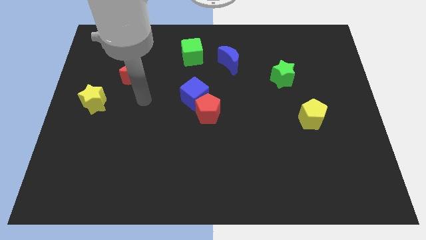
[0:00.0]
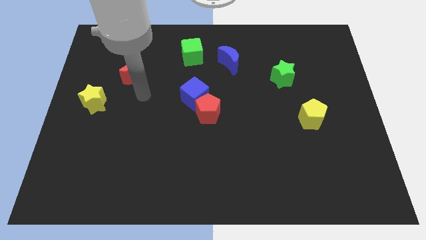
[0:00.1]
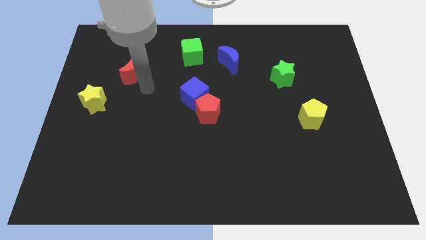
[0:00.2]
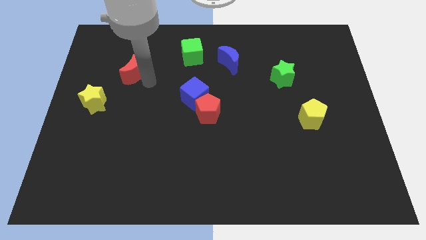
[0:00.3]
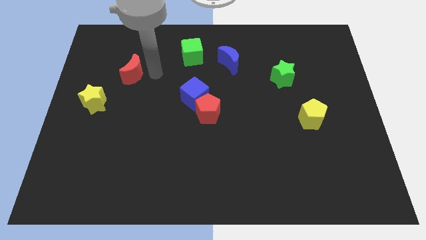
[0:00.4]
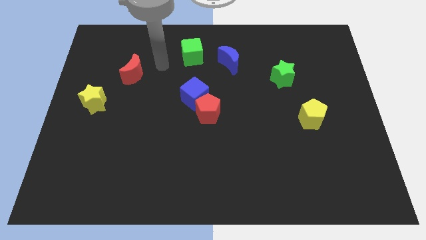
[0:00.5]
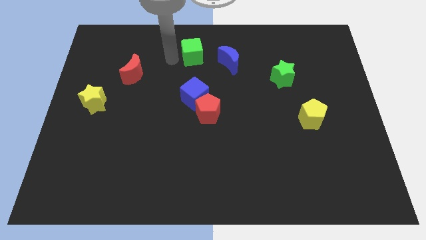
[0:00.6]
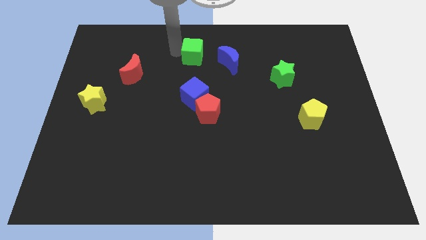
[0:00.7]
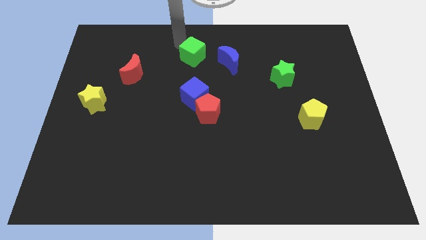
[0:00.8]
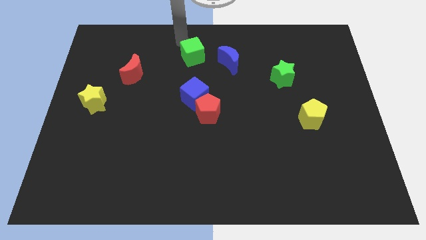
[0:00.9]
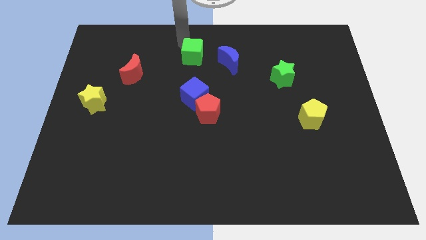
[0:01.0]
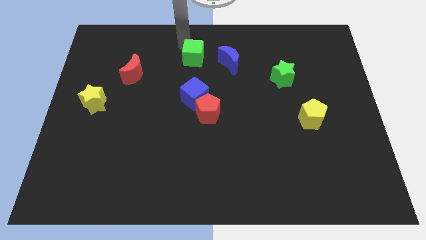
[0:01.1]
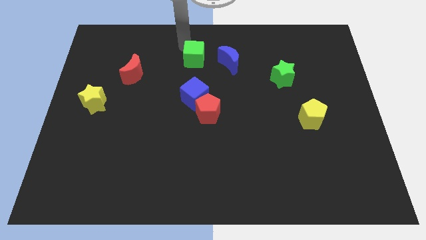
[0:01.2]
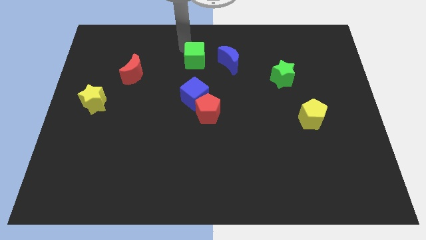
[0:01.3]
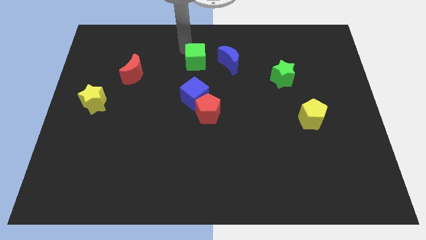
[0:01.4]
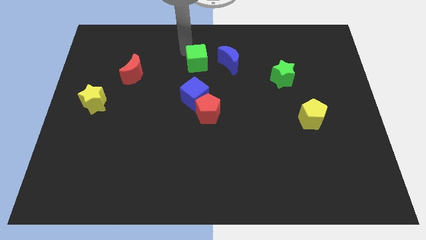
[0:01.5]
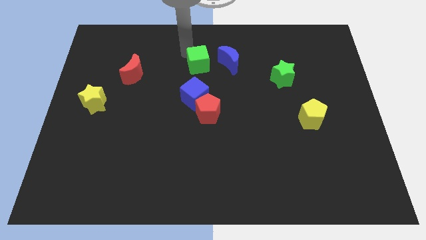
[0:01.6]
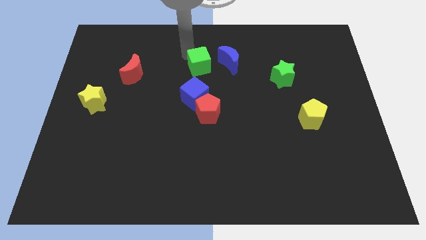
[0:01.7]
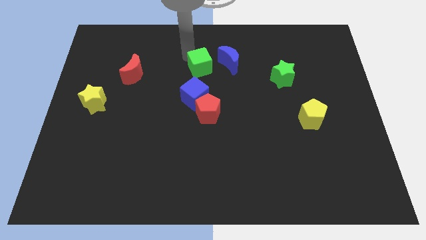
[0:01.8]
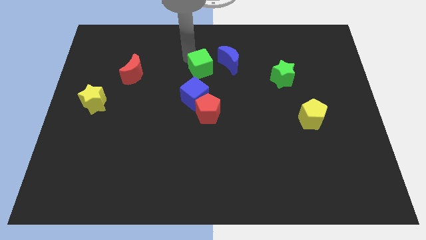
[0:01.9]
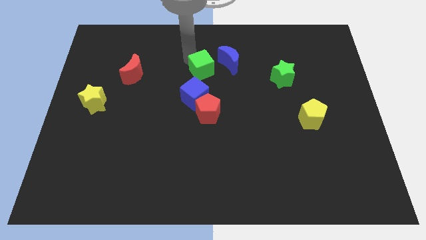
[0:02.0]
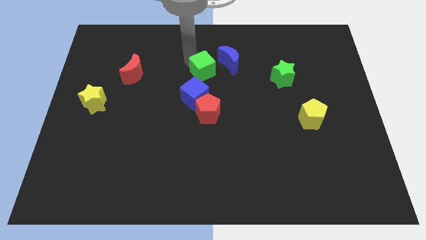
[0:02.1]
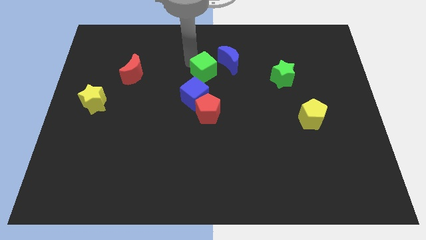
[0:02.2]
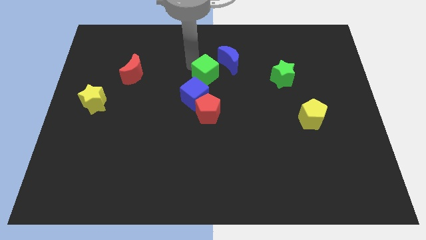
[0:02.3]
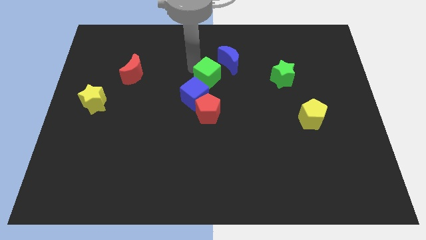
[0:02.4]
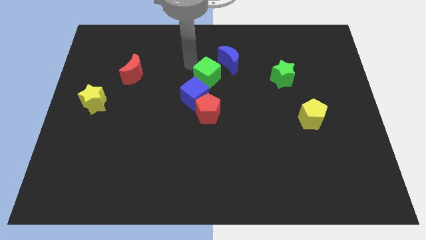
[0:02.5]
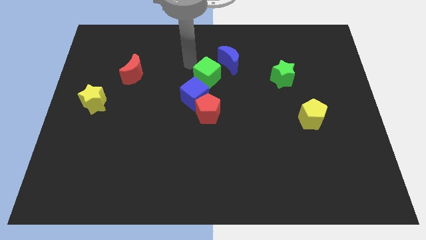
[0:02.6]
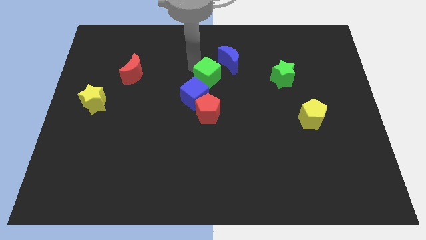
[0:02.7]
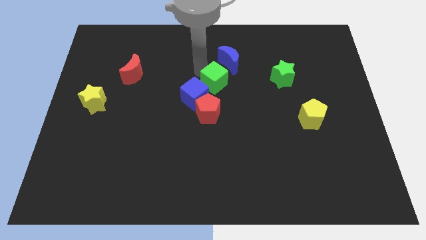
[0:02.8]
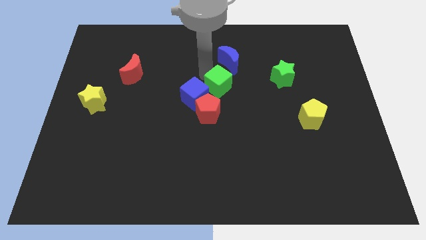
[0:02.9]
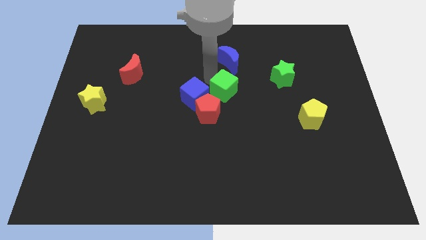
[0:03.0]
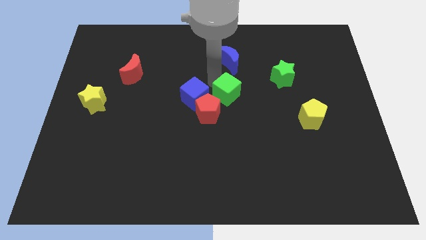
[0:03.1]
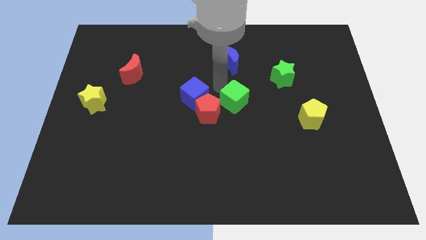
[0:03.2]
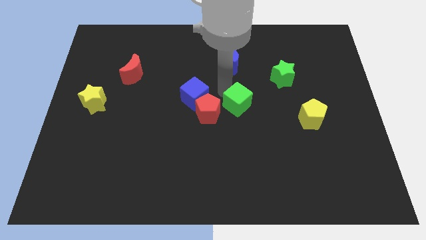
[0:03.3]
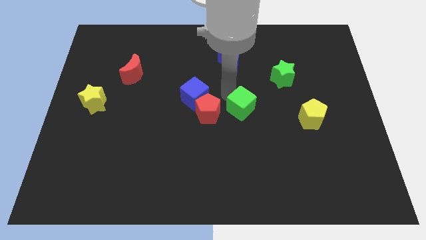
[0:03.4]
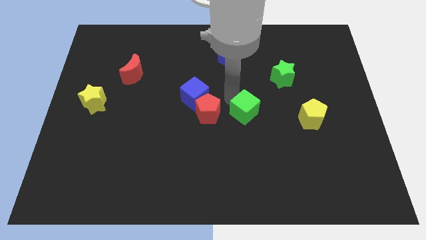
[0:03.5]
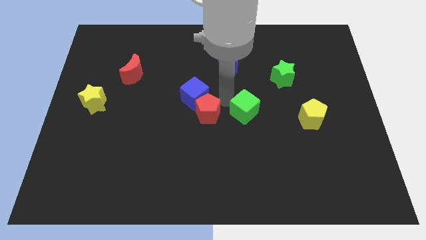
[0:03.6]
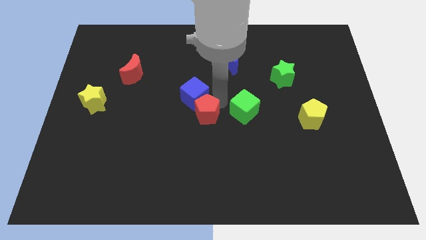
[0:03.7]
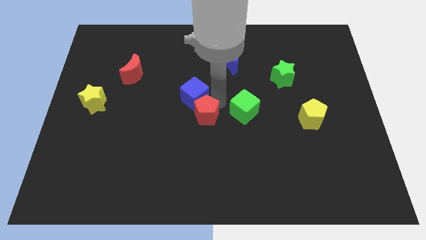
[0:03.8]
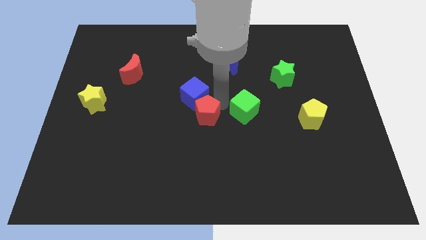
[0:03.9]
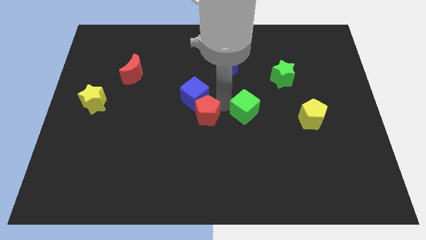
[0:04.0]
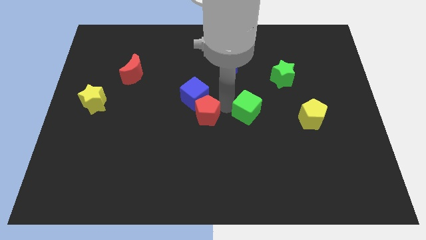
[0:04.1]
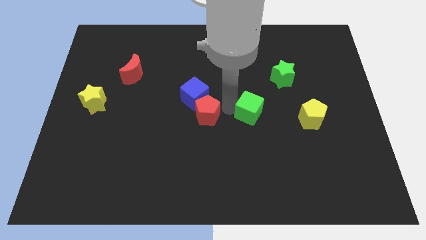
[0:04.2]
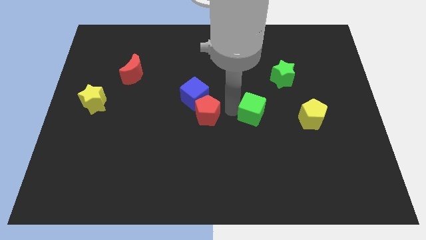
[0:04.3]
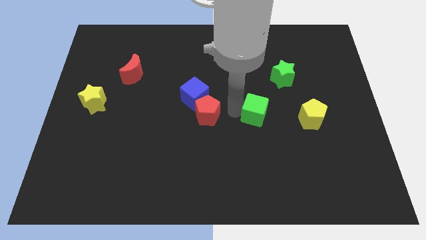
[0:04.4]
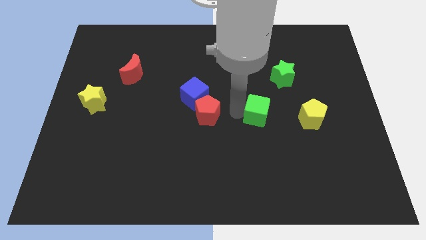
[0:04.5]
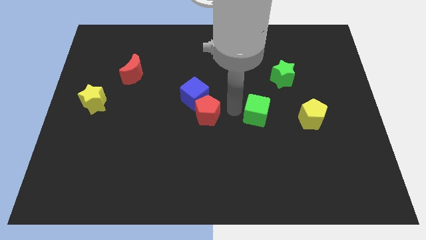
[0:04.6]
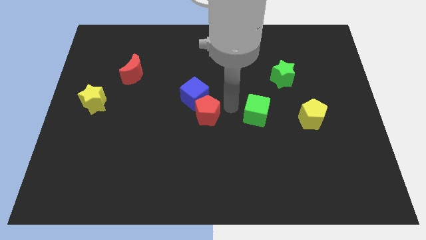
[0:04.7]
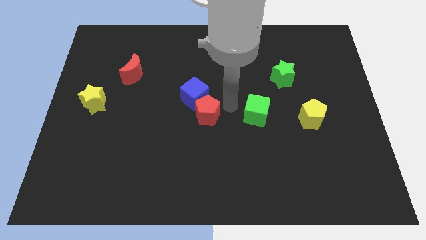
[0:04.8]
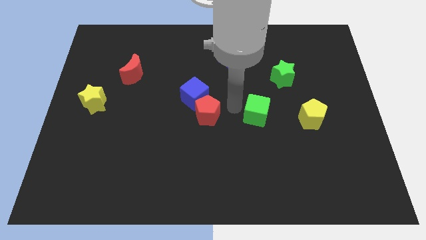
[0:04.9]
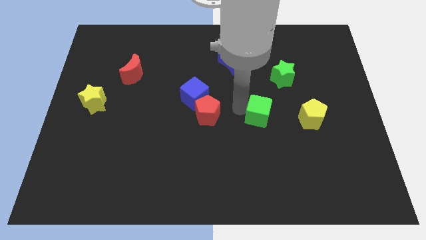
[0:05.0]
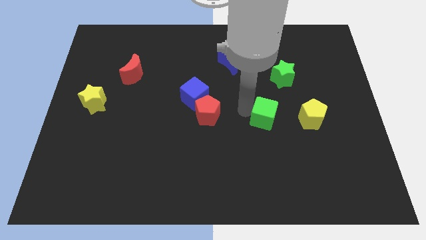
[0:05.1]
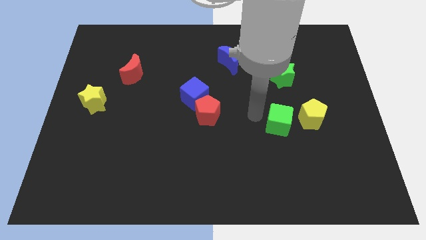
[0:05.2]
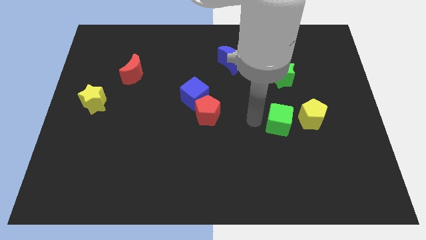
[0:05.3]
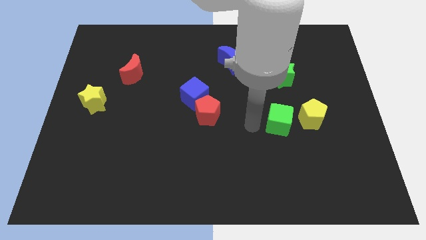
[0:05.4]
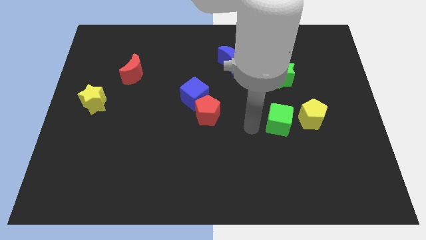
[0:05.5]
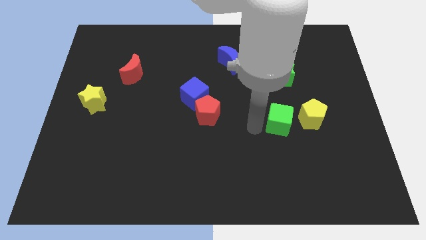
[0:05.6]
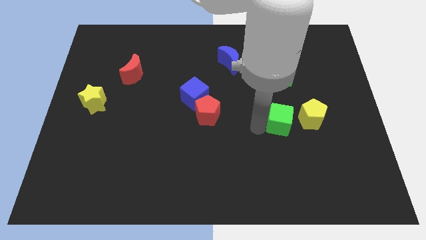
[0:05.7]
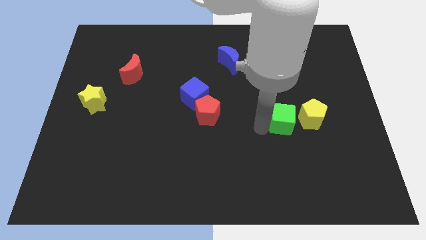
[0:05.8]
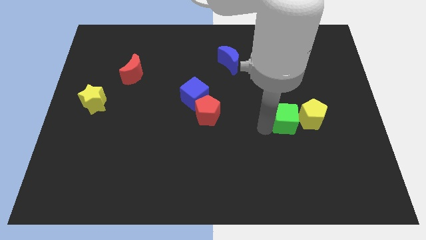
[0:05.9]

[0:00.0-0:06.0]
put the green cube to the yellow pentagon

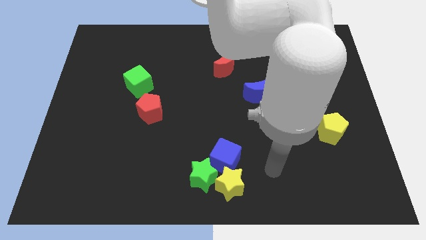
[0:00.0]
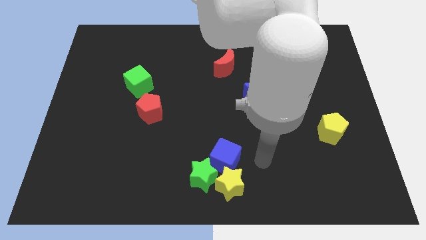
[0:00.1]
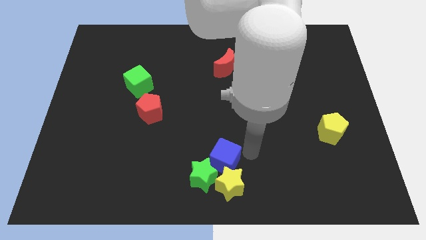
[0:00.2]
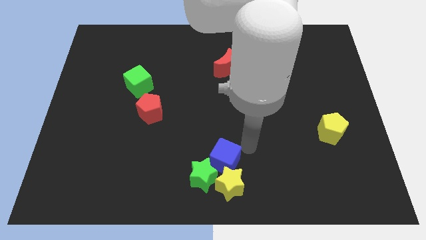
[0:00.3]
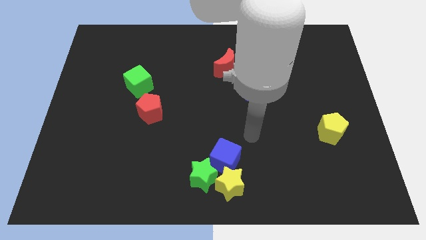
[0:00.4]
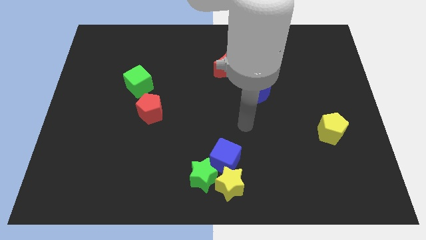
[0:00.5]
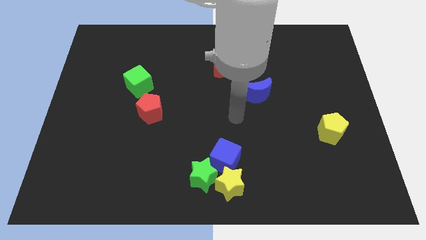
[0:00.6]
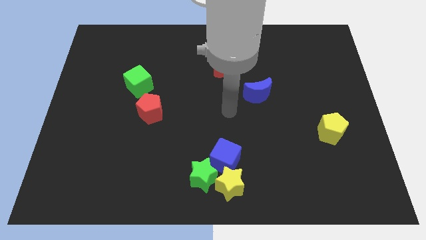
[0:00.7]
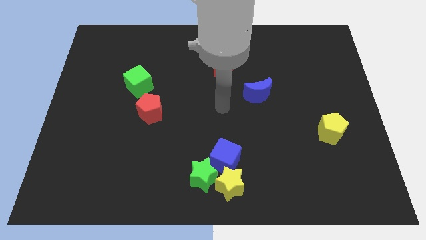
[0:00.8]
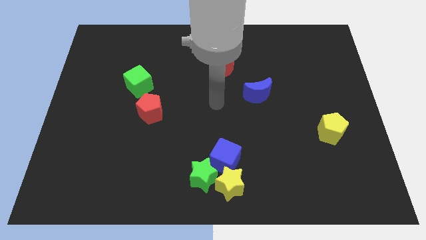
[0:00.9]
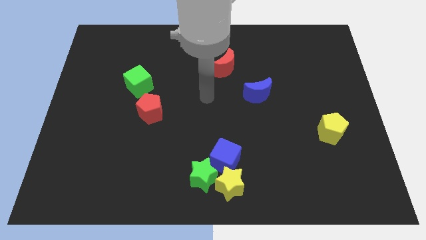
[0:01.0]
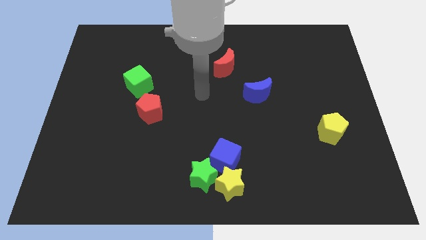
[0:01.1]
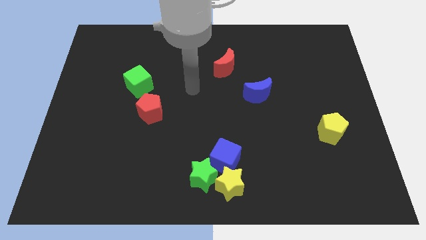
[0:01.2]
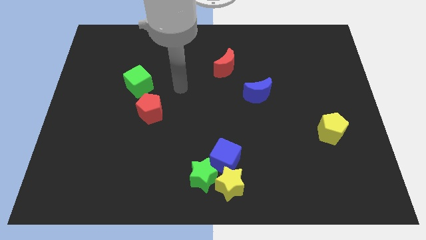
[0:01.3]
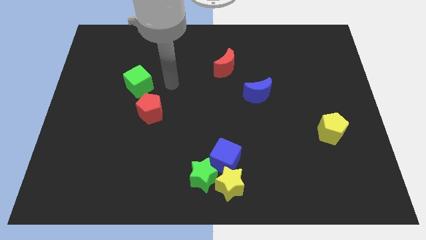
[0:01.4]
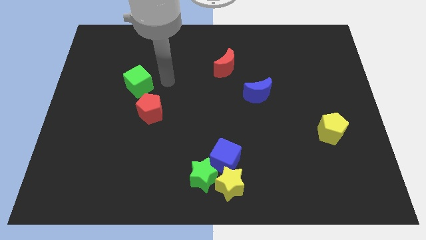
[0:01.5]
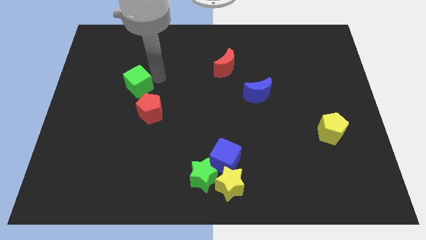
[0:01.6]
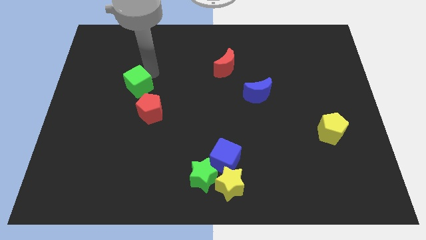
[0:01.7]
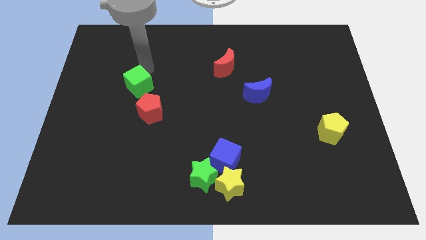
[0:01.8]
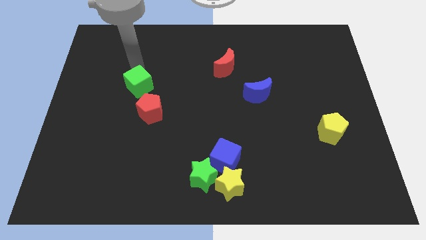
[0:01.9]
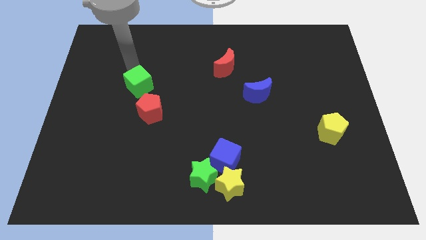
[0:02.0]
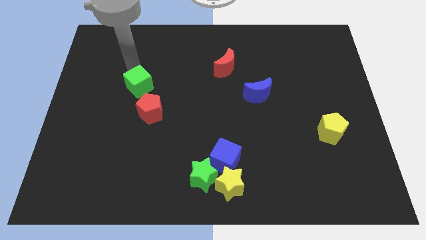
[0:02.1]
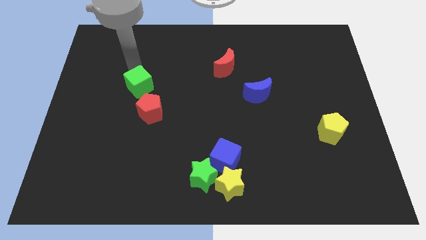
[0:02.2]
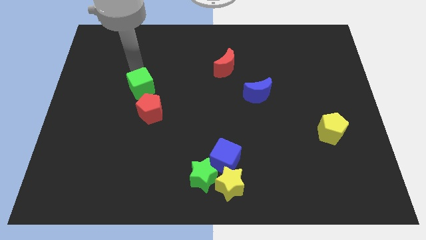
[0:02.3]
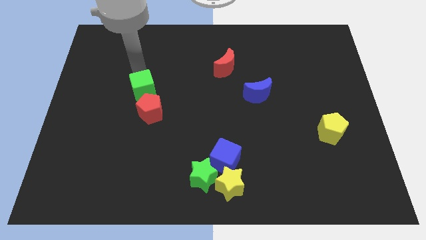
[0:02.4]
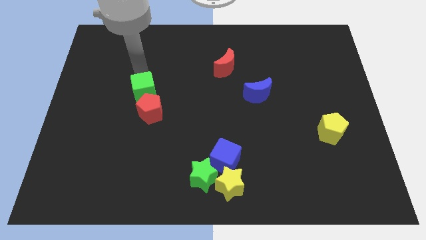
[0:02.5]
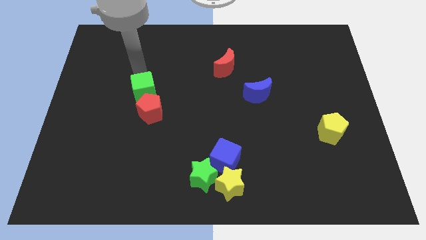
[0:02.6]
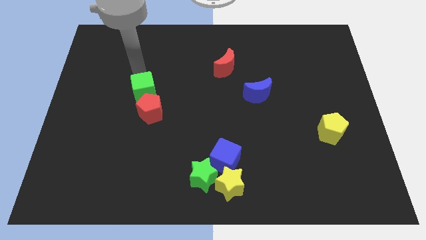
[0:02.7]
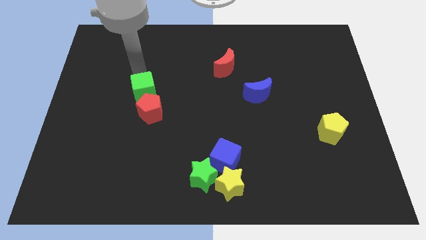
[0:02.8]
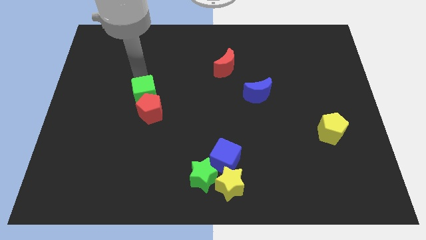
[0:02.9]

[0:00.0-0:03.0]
push the green cube to the red pentagon
